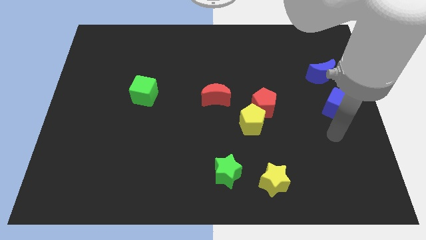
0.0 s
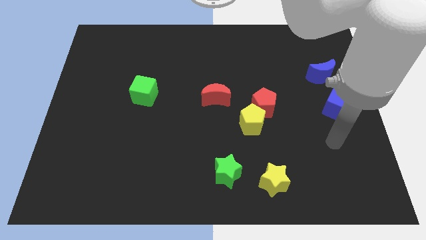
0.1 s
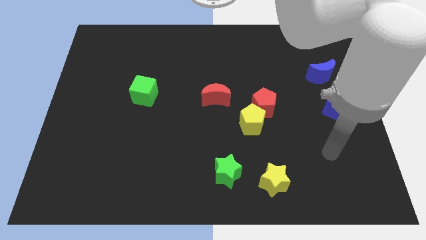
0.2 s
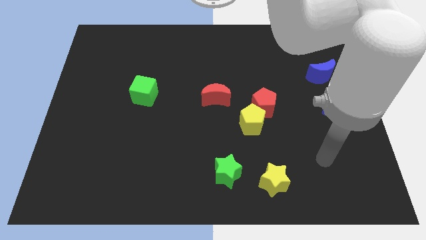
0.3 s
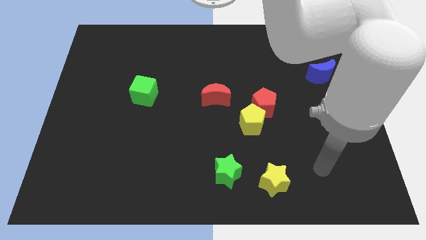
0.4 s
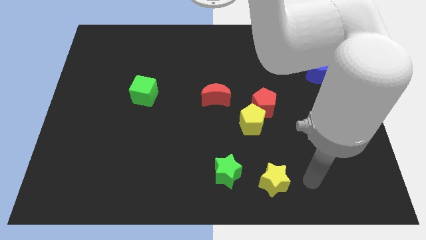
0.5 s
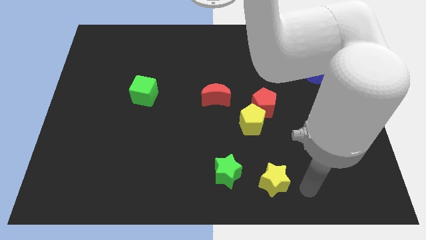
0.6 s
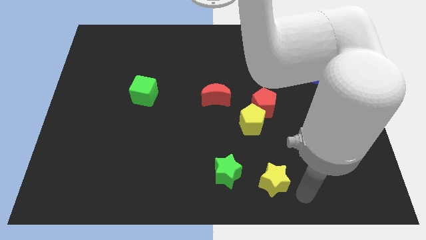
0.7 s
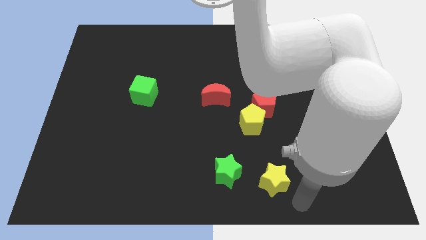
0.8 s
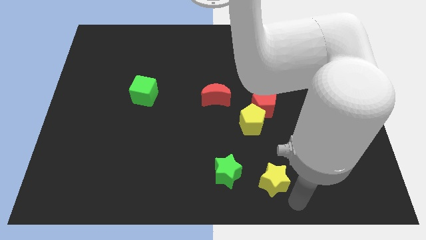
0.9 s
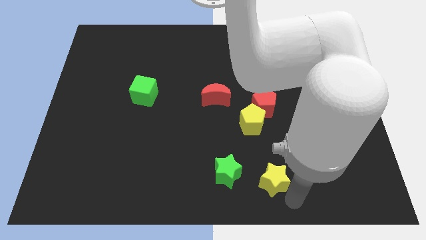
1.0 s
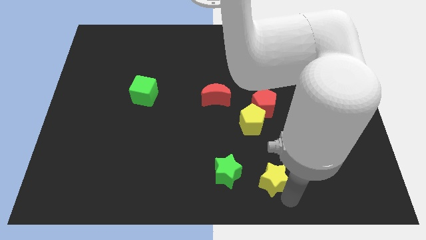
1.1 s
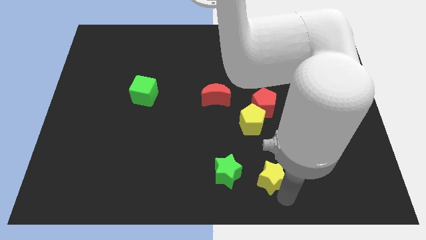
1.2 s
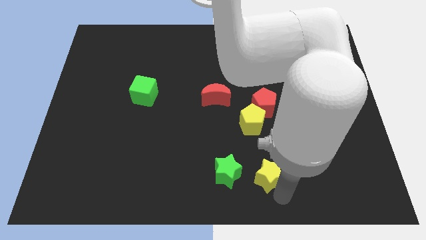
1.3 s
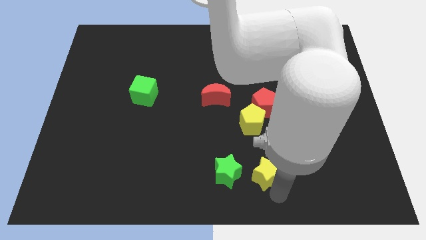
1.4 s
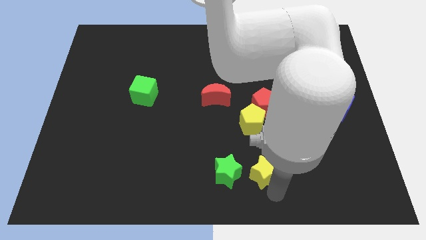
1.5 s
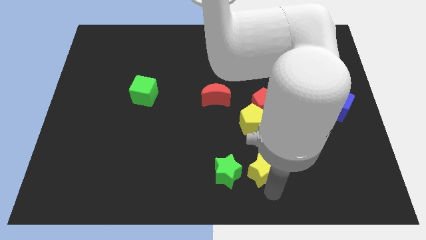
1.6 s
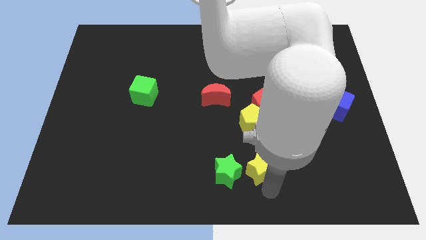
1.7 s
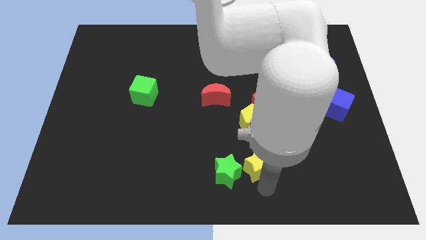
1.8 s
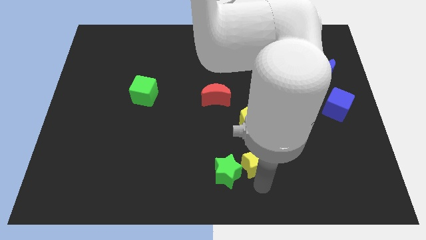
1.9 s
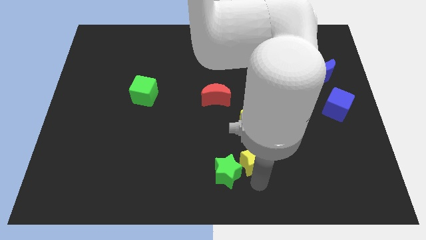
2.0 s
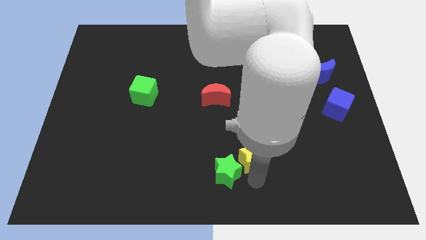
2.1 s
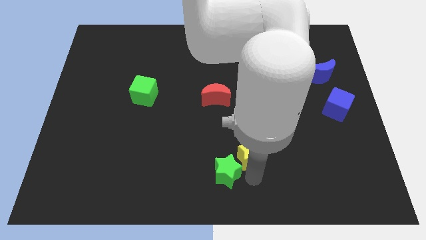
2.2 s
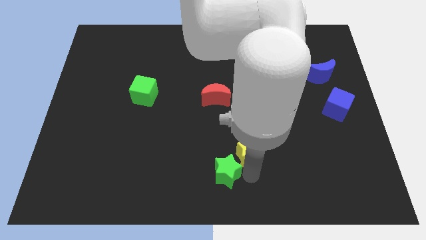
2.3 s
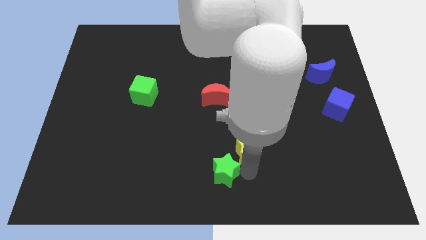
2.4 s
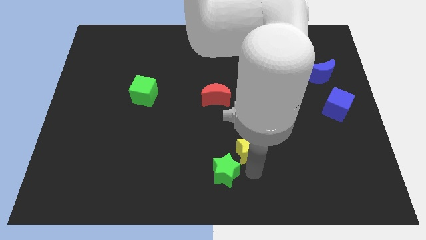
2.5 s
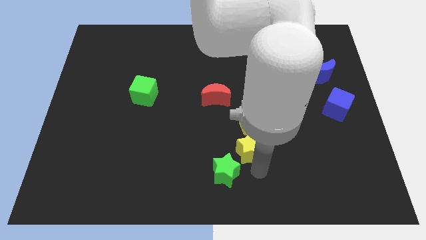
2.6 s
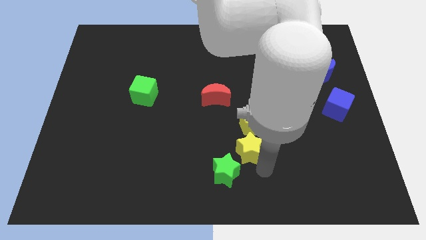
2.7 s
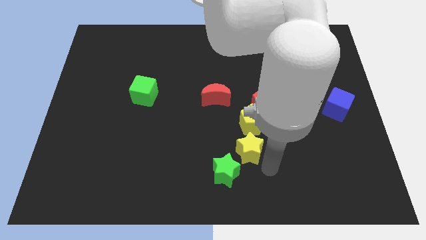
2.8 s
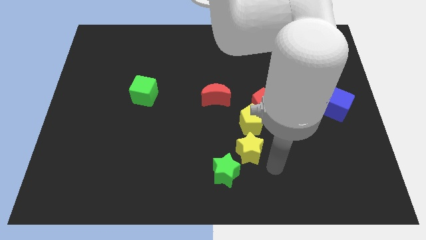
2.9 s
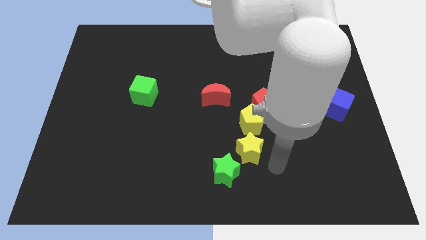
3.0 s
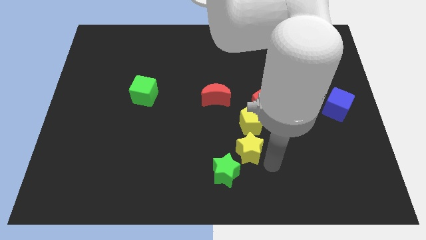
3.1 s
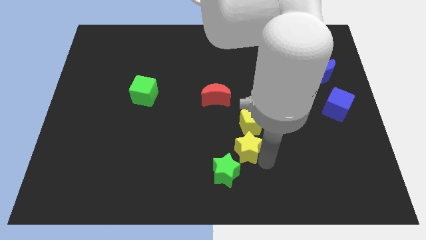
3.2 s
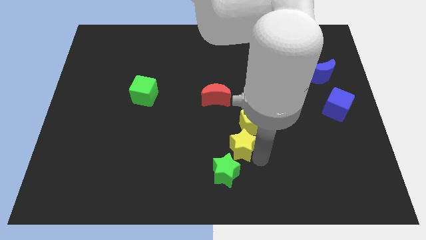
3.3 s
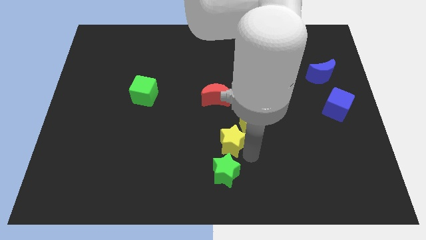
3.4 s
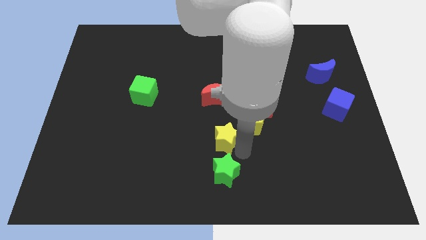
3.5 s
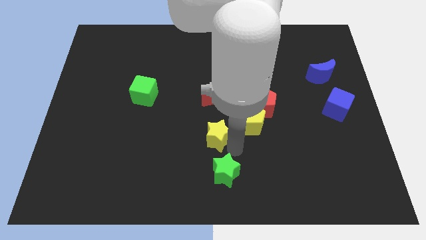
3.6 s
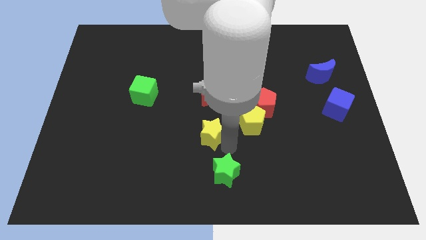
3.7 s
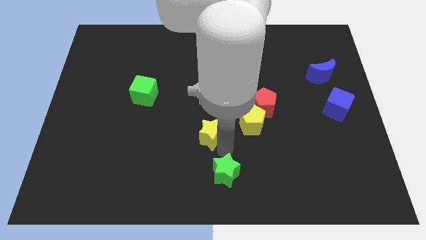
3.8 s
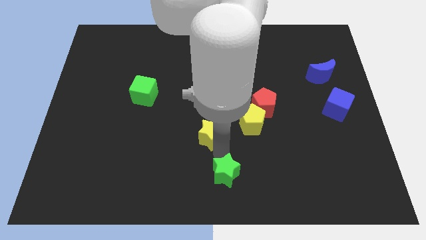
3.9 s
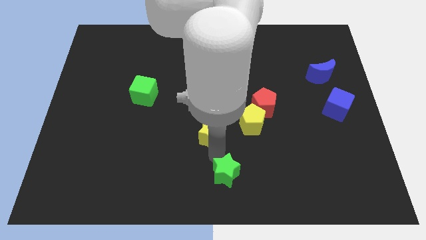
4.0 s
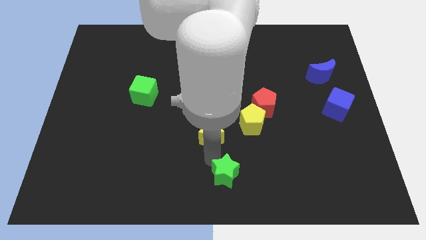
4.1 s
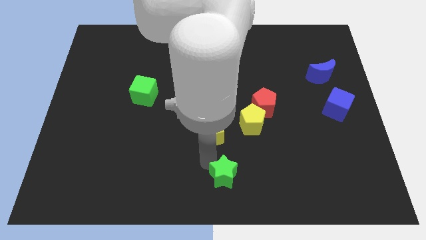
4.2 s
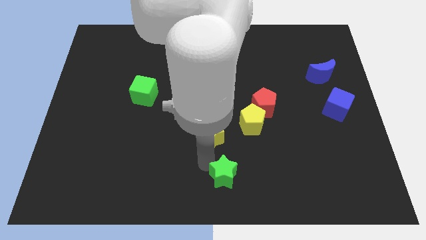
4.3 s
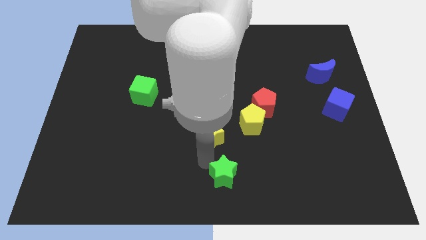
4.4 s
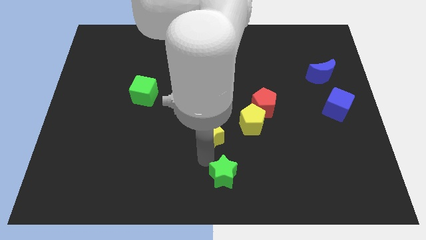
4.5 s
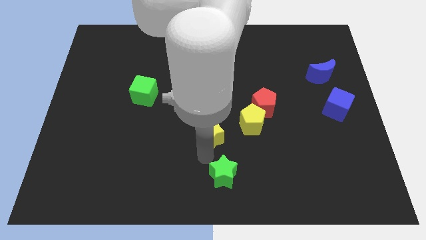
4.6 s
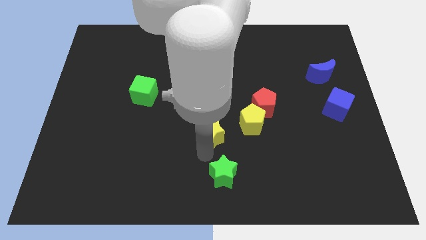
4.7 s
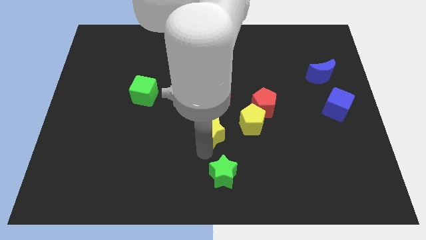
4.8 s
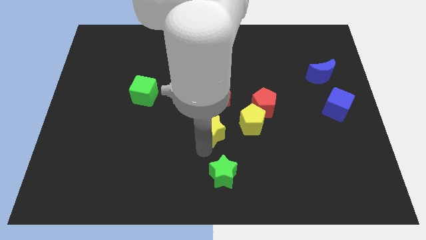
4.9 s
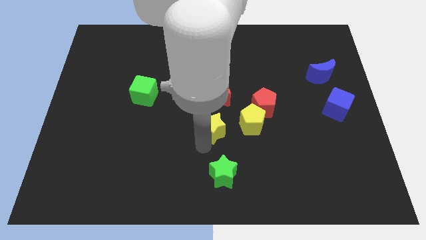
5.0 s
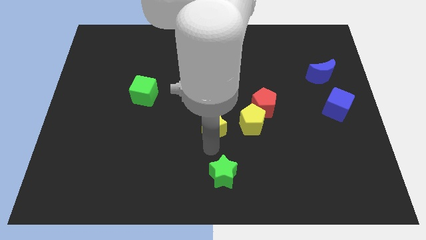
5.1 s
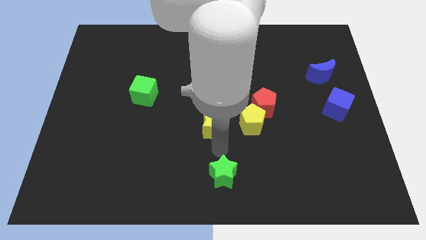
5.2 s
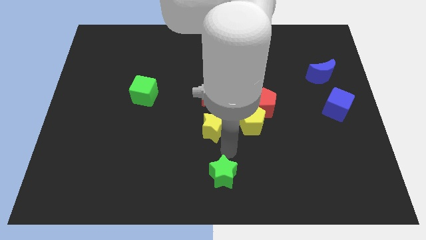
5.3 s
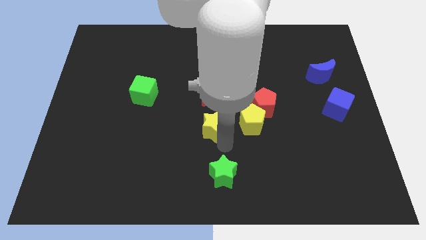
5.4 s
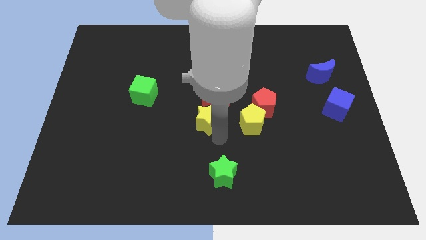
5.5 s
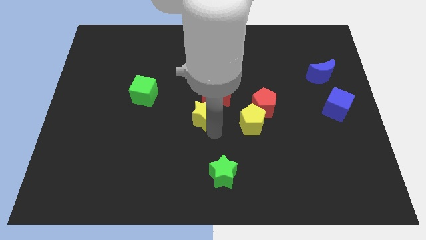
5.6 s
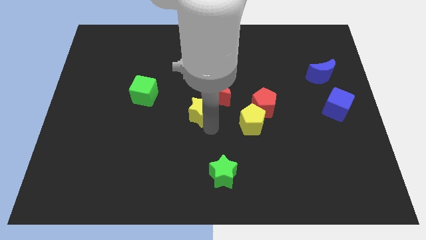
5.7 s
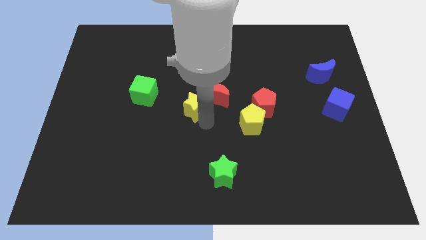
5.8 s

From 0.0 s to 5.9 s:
slide the yellow star right of the green cube

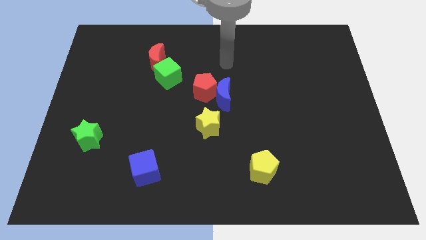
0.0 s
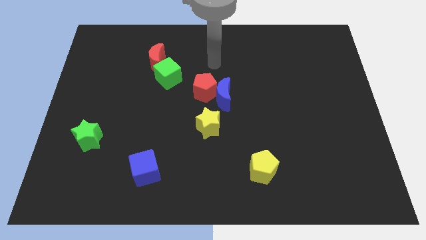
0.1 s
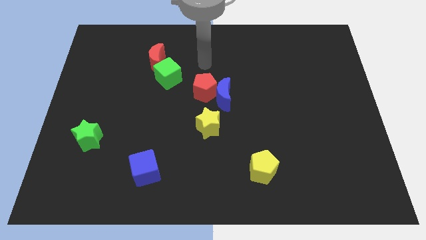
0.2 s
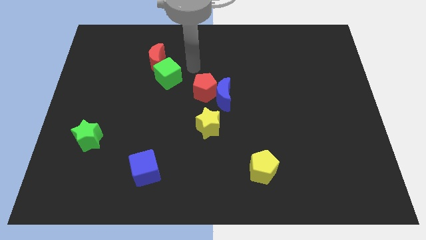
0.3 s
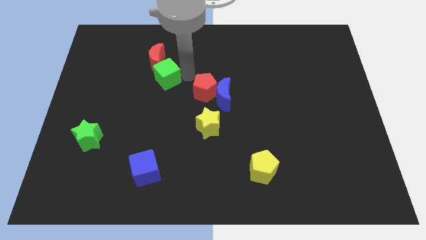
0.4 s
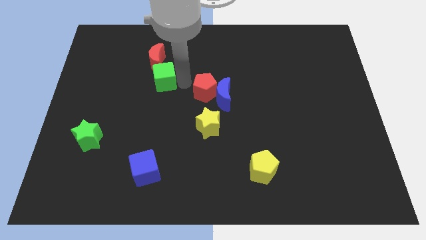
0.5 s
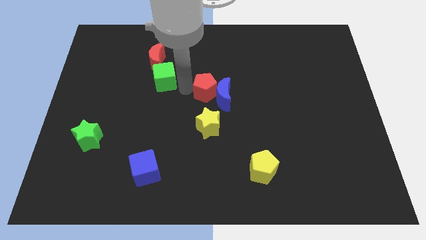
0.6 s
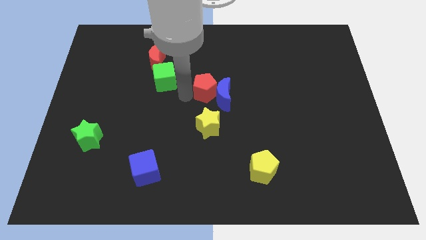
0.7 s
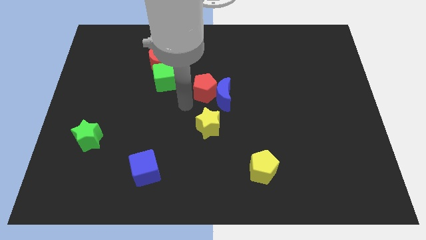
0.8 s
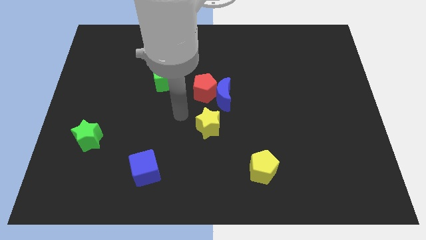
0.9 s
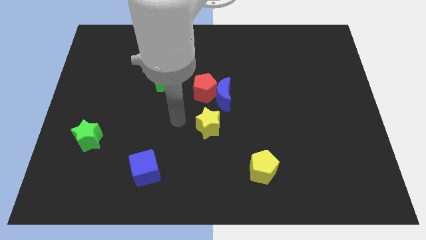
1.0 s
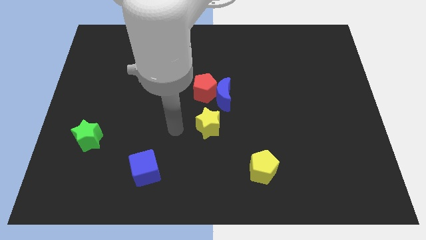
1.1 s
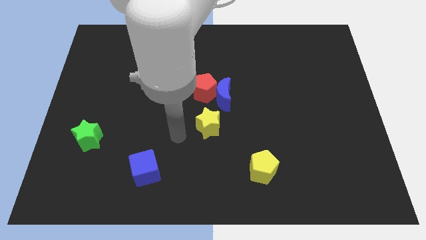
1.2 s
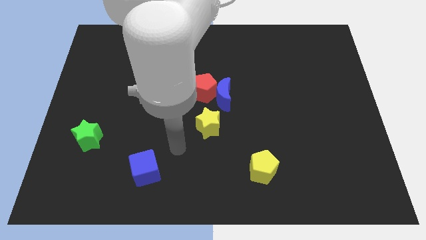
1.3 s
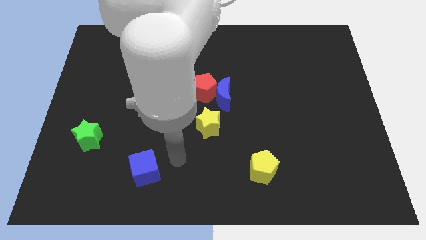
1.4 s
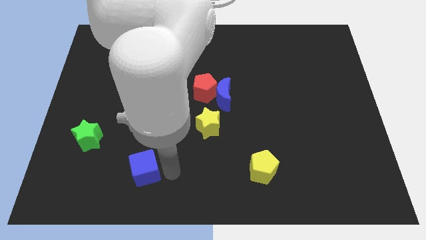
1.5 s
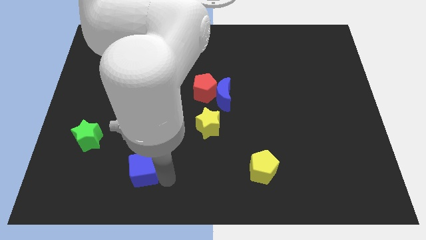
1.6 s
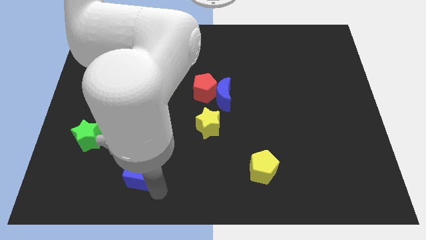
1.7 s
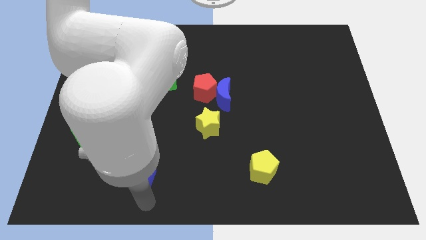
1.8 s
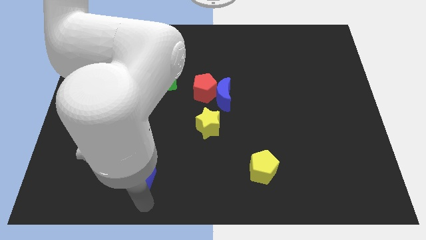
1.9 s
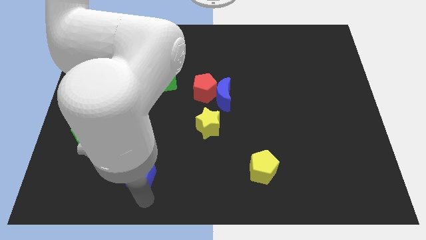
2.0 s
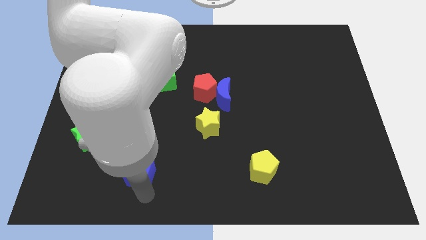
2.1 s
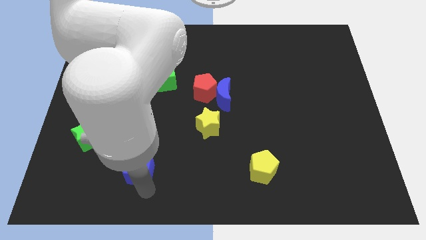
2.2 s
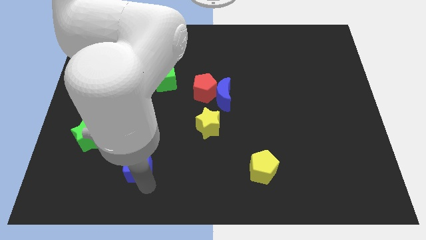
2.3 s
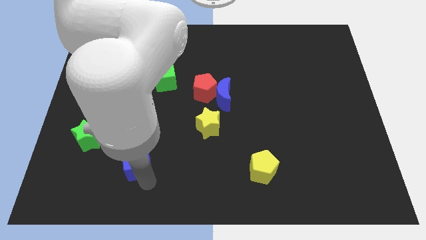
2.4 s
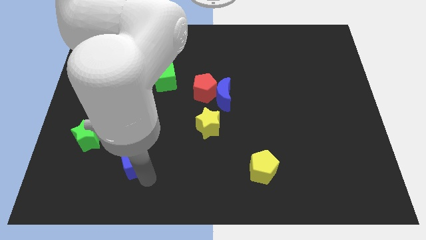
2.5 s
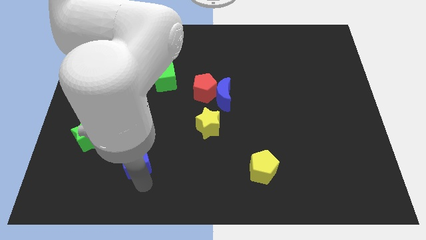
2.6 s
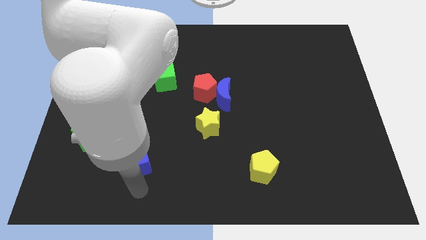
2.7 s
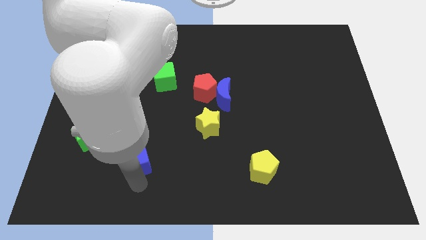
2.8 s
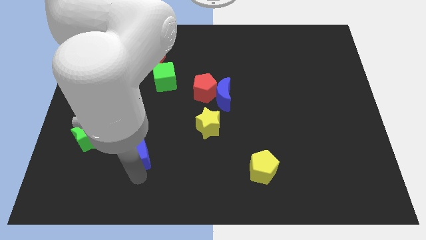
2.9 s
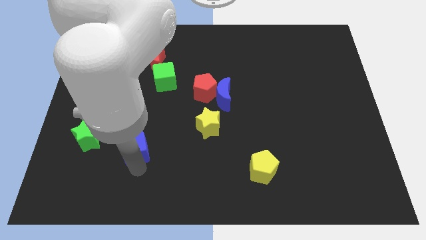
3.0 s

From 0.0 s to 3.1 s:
push the blue cube to the right of the green star
